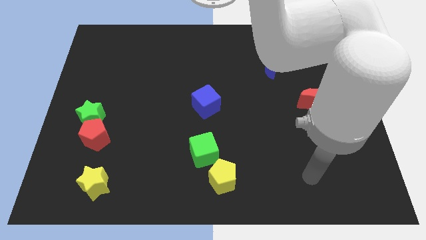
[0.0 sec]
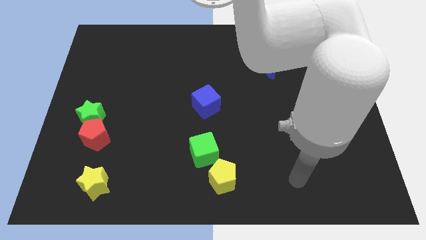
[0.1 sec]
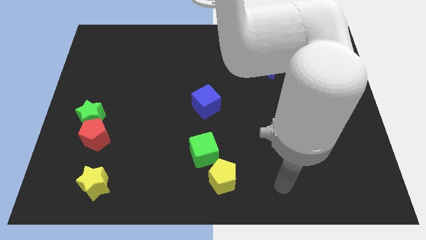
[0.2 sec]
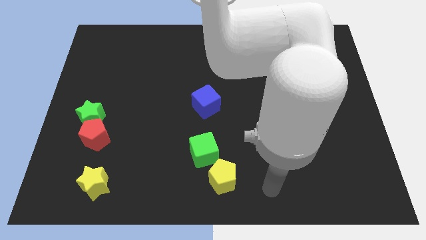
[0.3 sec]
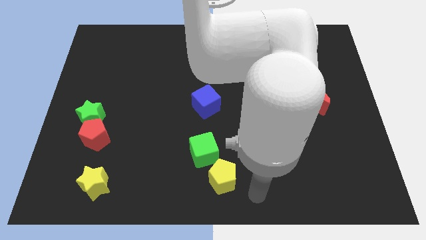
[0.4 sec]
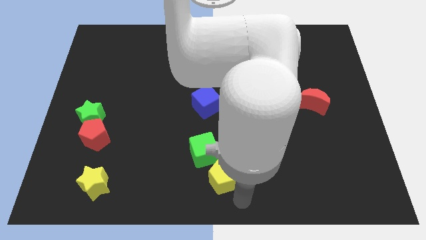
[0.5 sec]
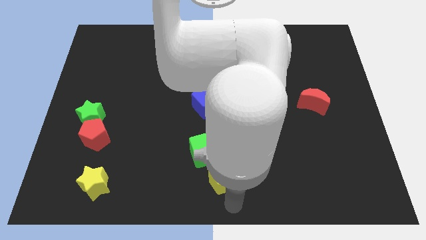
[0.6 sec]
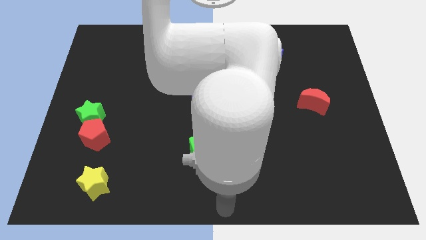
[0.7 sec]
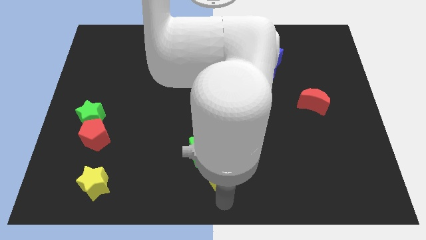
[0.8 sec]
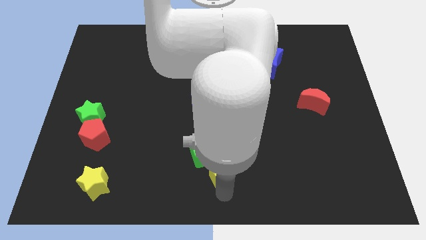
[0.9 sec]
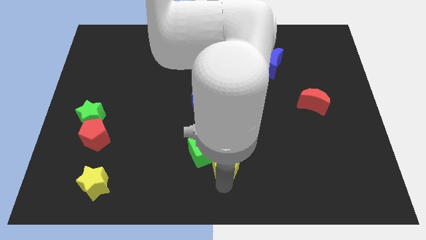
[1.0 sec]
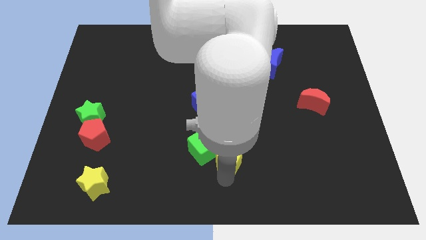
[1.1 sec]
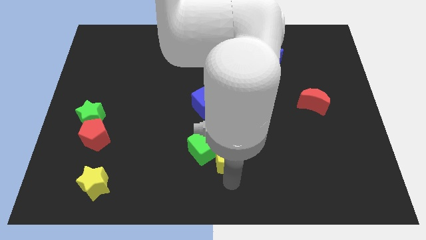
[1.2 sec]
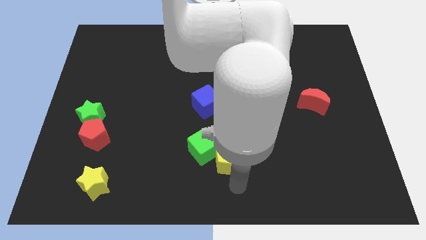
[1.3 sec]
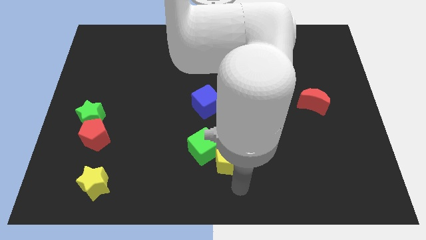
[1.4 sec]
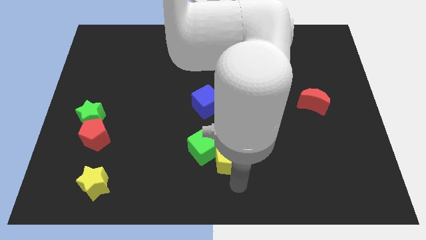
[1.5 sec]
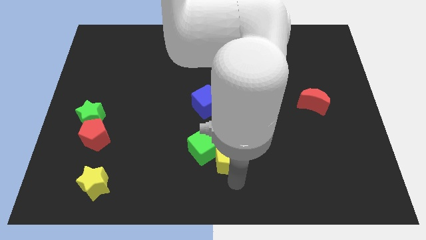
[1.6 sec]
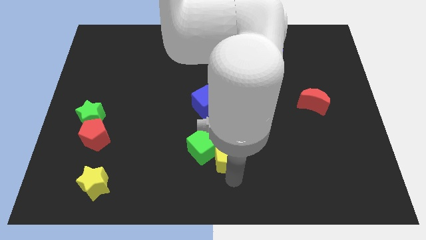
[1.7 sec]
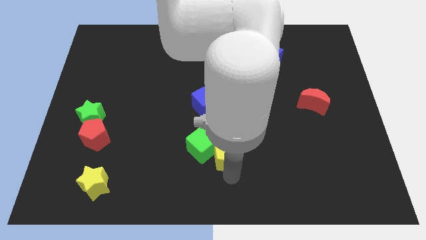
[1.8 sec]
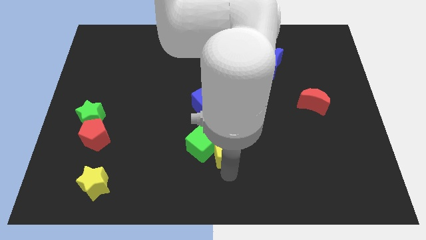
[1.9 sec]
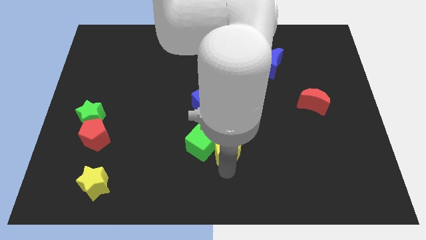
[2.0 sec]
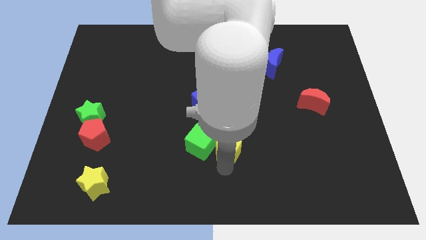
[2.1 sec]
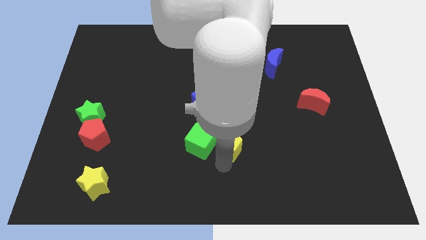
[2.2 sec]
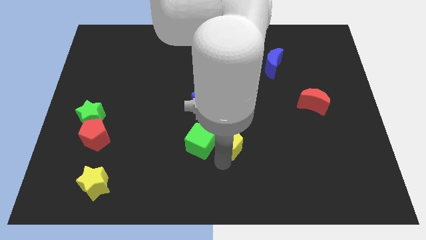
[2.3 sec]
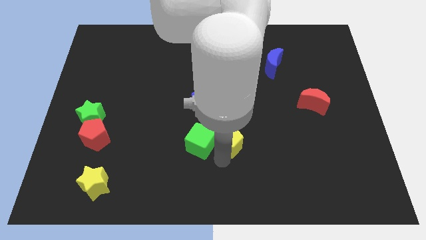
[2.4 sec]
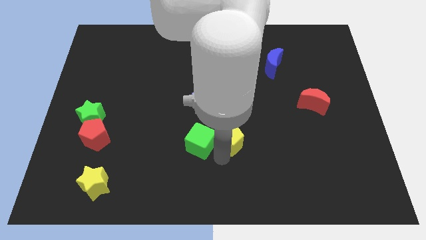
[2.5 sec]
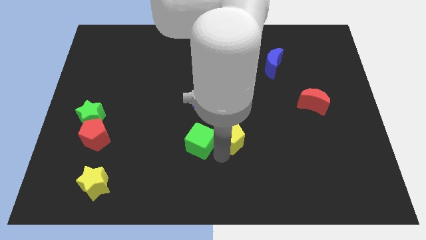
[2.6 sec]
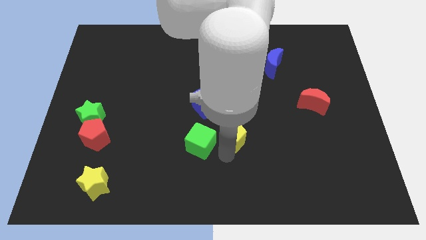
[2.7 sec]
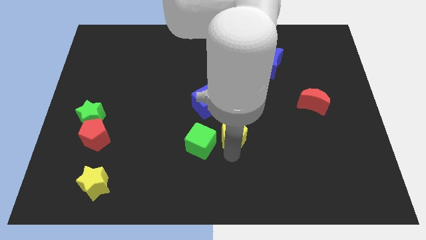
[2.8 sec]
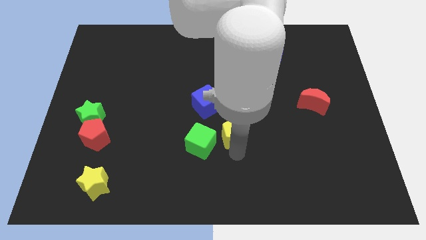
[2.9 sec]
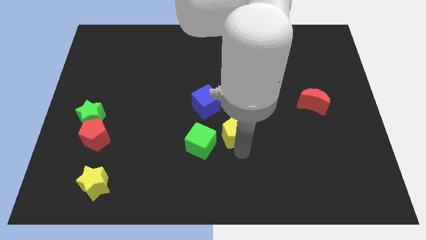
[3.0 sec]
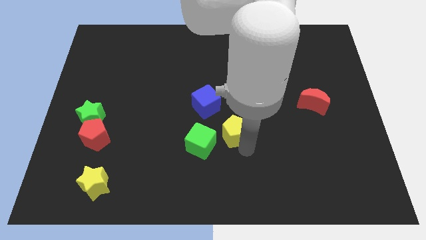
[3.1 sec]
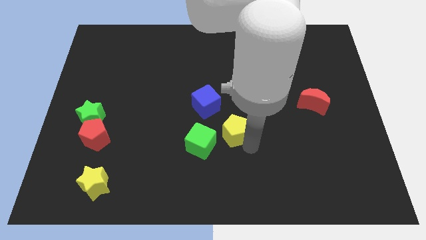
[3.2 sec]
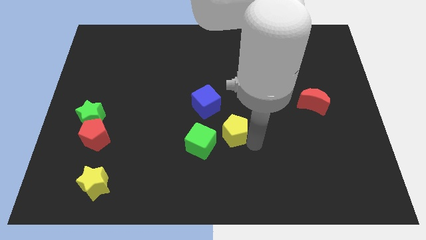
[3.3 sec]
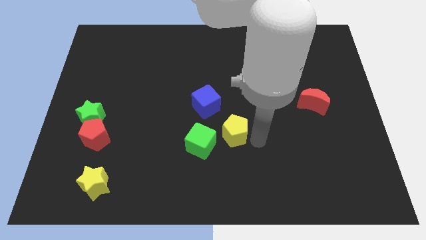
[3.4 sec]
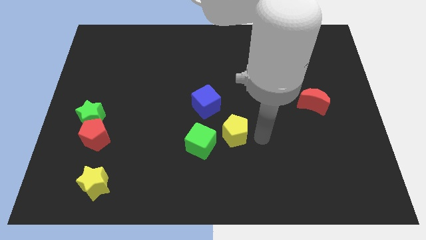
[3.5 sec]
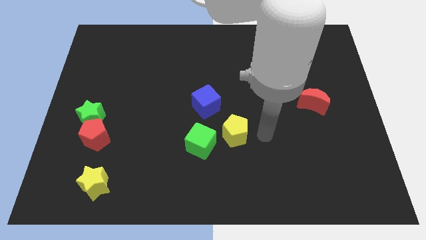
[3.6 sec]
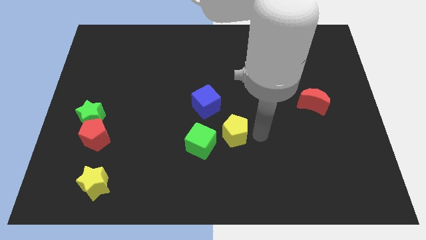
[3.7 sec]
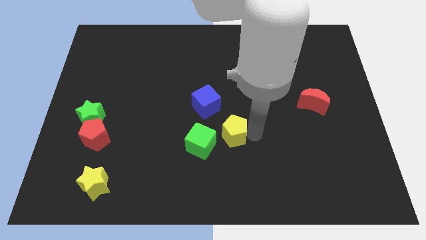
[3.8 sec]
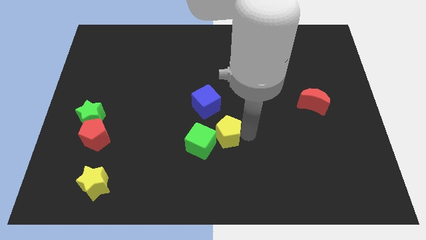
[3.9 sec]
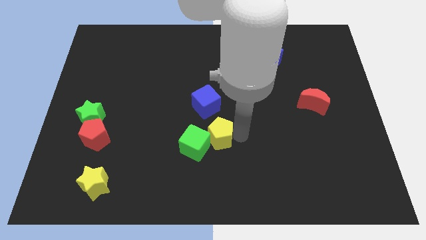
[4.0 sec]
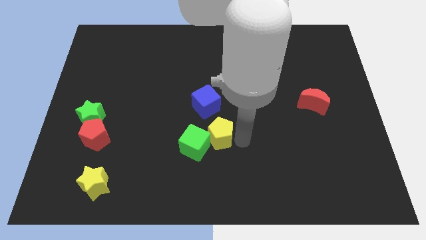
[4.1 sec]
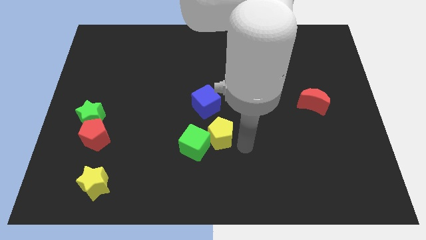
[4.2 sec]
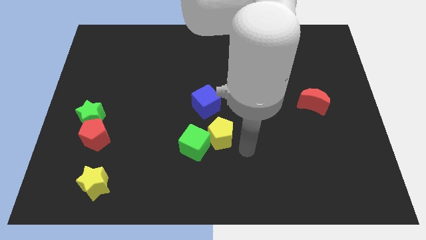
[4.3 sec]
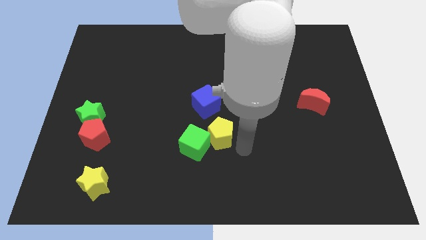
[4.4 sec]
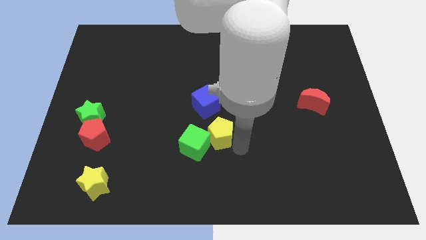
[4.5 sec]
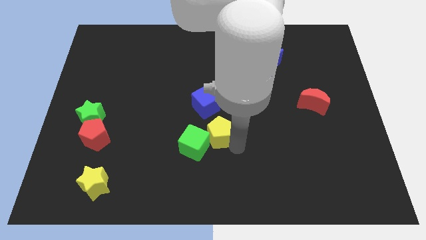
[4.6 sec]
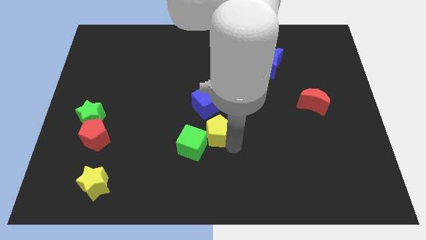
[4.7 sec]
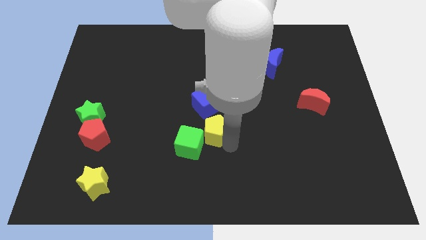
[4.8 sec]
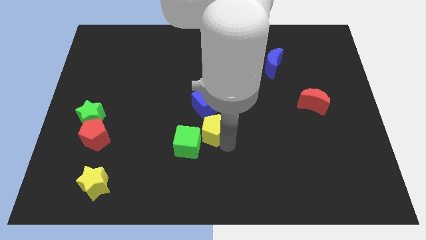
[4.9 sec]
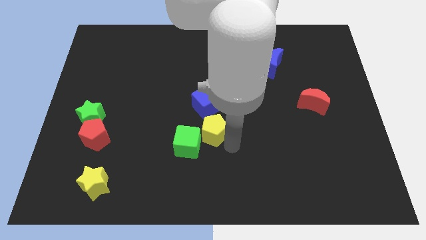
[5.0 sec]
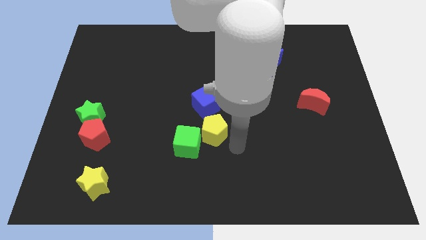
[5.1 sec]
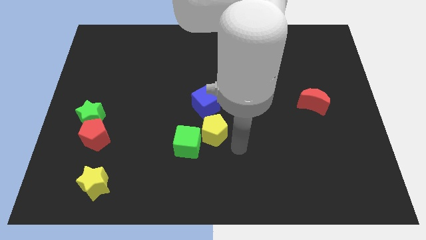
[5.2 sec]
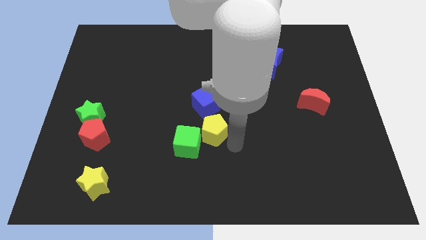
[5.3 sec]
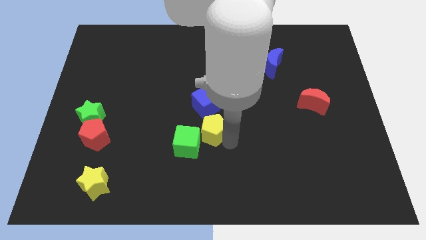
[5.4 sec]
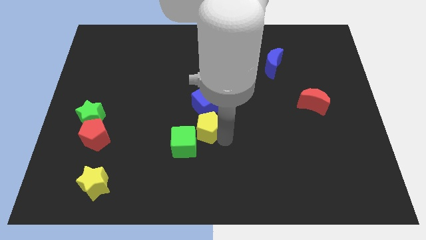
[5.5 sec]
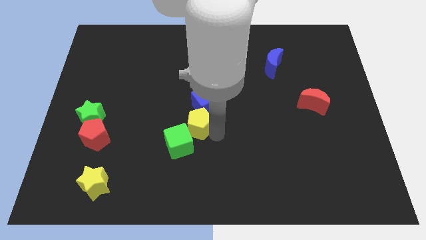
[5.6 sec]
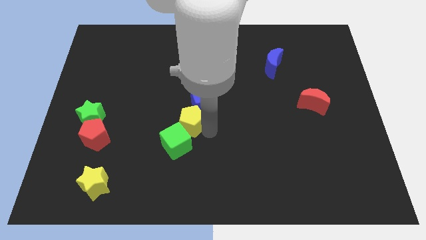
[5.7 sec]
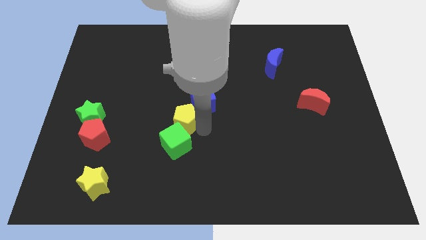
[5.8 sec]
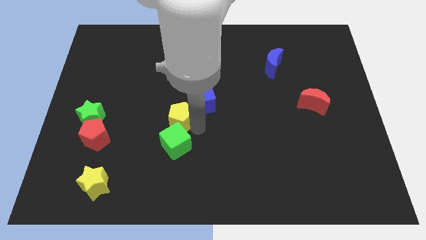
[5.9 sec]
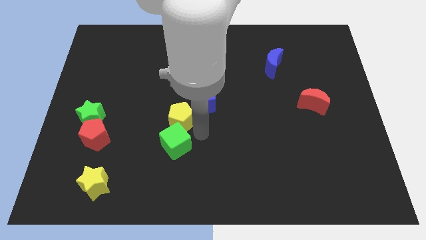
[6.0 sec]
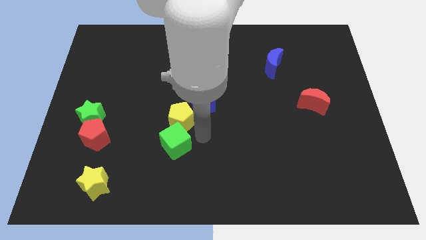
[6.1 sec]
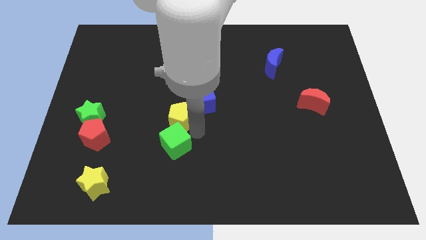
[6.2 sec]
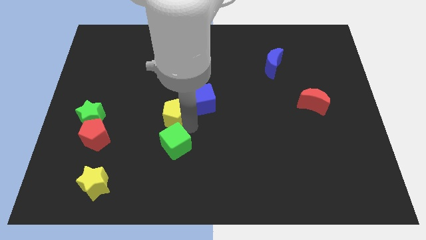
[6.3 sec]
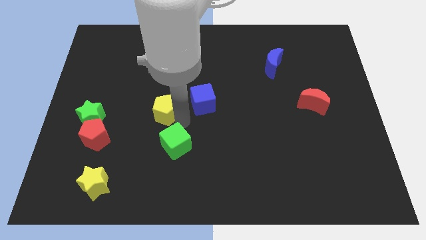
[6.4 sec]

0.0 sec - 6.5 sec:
push the yellow pentagon up and to the left

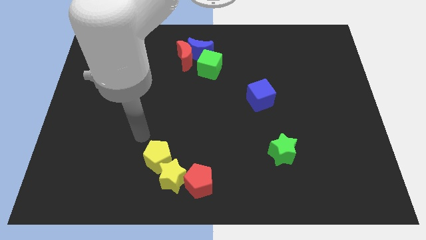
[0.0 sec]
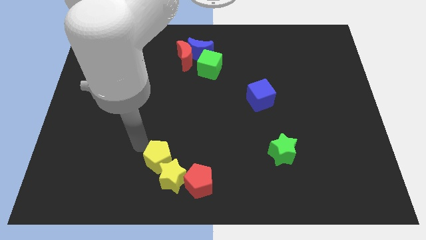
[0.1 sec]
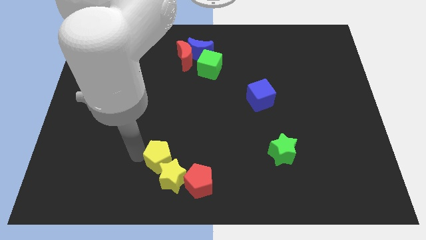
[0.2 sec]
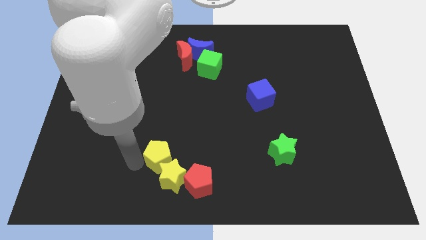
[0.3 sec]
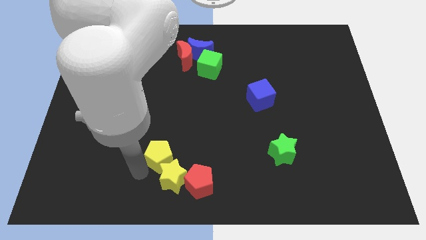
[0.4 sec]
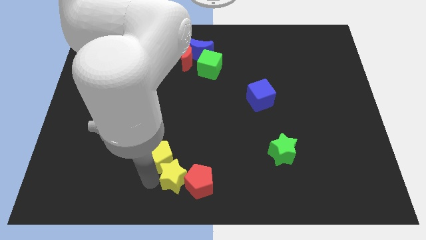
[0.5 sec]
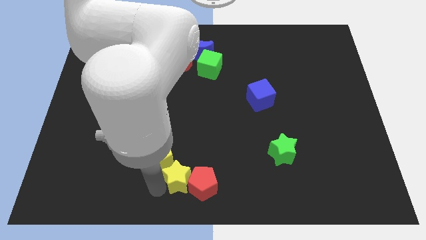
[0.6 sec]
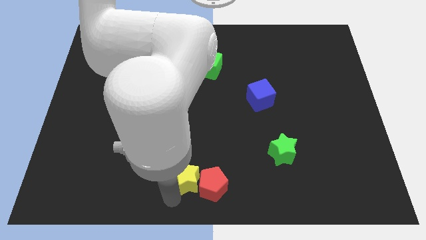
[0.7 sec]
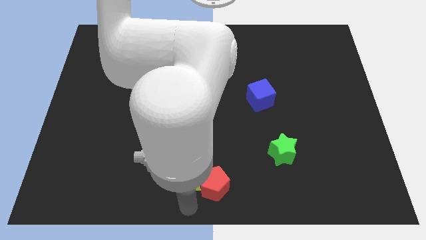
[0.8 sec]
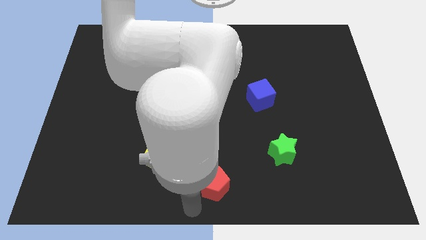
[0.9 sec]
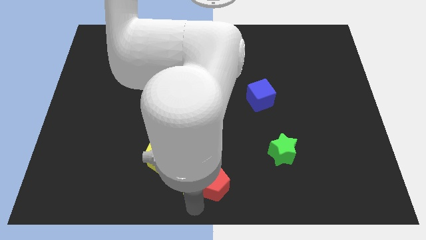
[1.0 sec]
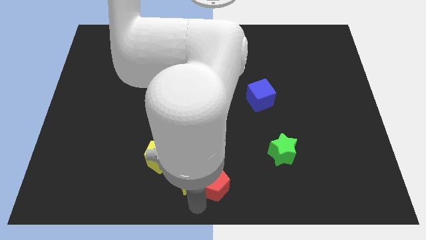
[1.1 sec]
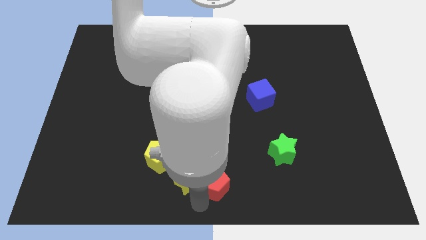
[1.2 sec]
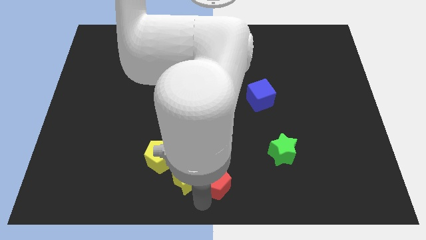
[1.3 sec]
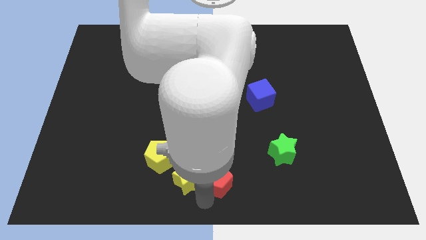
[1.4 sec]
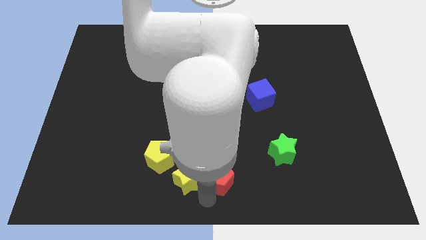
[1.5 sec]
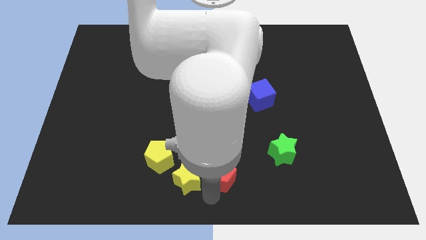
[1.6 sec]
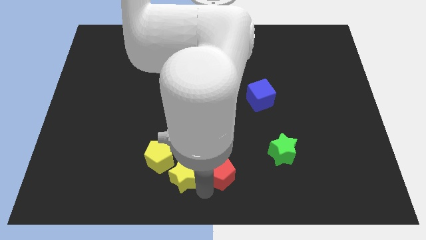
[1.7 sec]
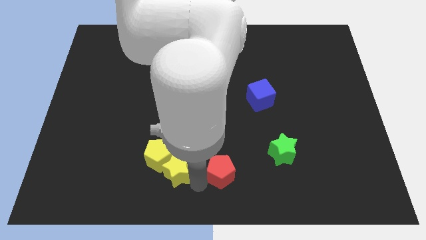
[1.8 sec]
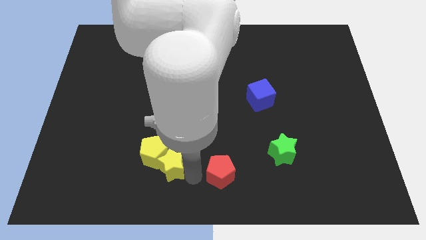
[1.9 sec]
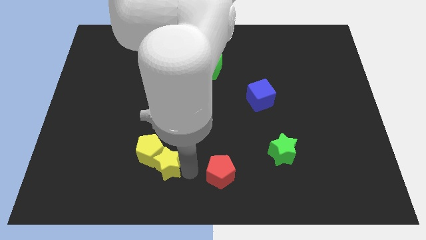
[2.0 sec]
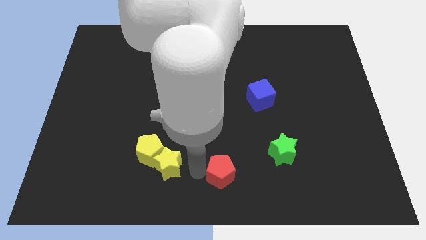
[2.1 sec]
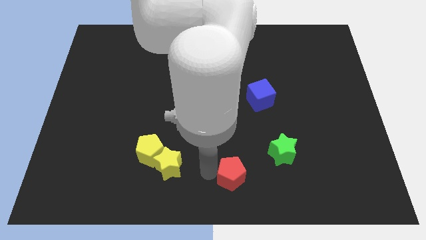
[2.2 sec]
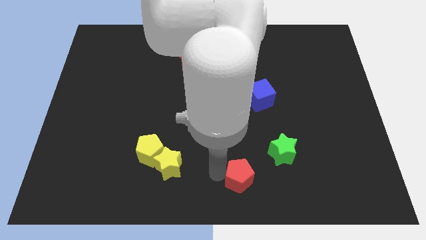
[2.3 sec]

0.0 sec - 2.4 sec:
push the red pentagon a little bit to the right
